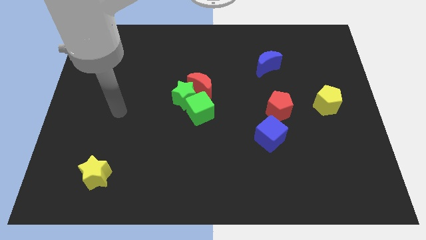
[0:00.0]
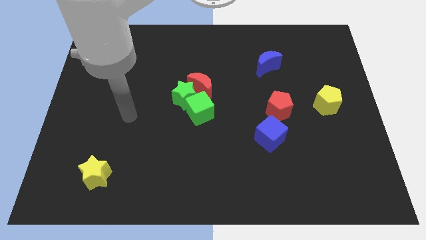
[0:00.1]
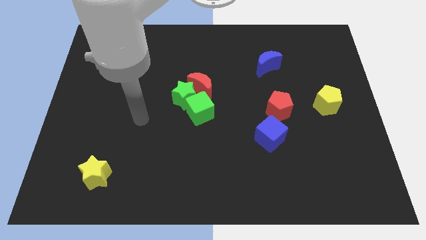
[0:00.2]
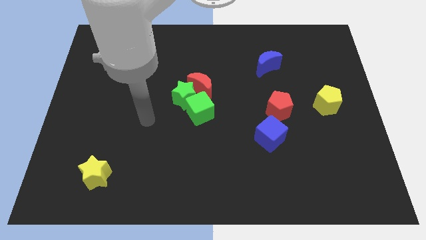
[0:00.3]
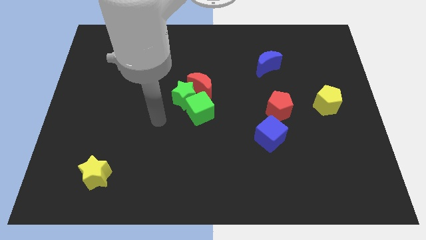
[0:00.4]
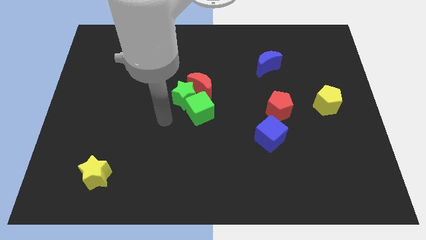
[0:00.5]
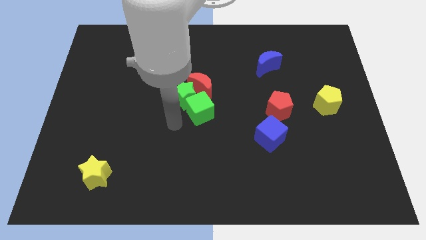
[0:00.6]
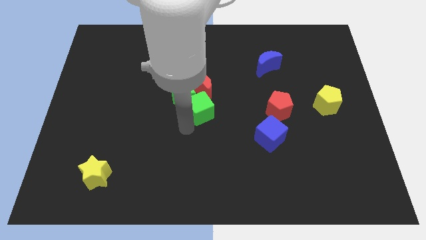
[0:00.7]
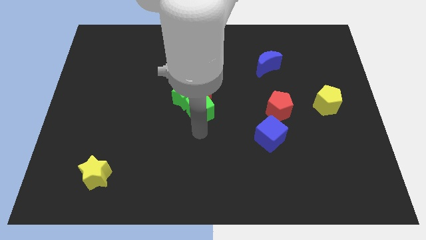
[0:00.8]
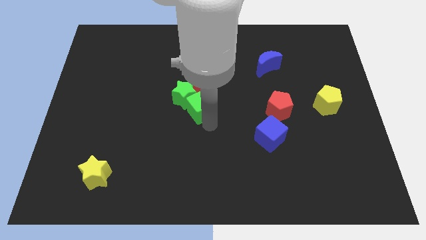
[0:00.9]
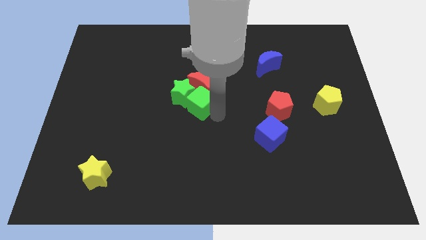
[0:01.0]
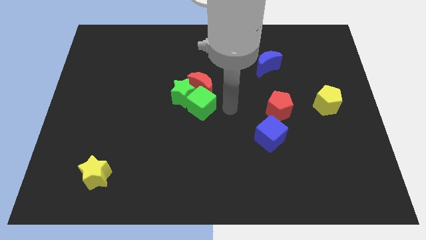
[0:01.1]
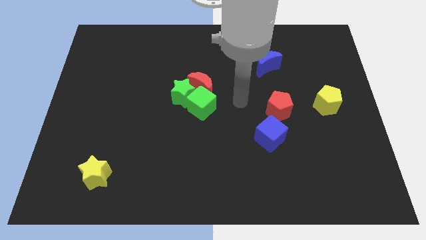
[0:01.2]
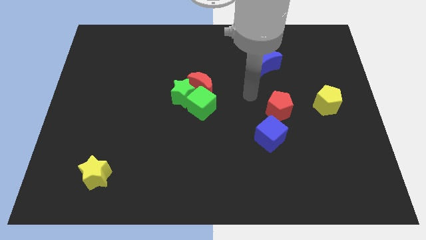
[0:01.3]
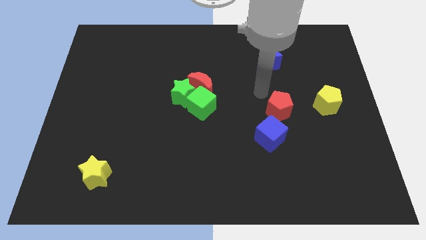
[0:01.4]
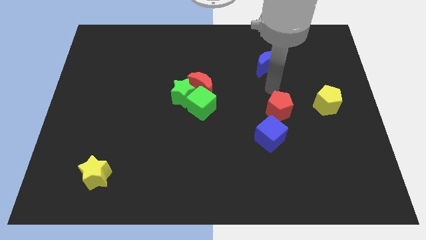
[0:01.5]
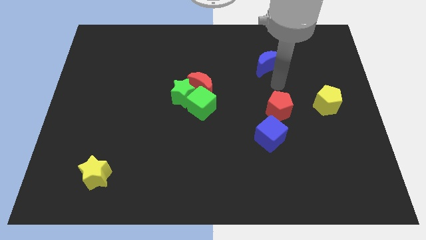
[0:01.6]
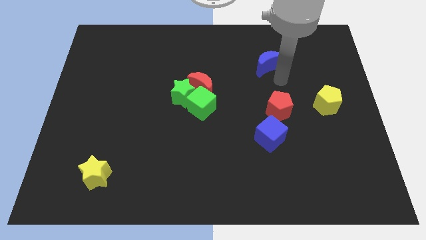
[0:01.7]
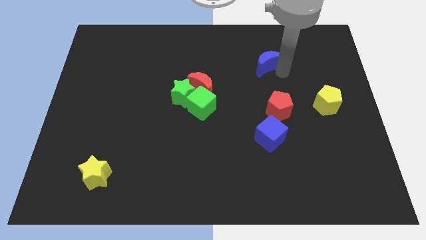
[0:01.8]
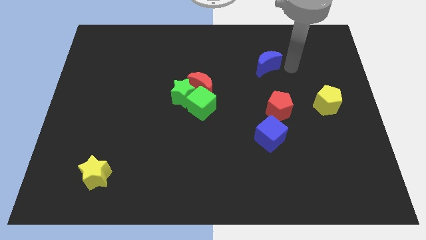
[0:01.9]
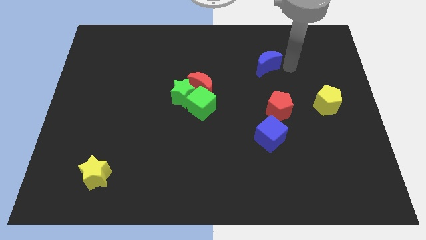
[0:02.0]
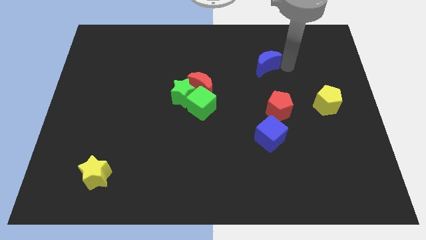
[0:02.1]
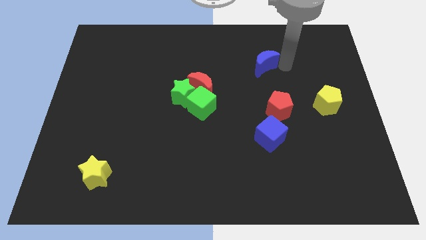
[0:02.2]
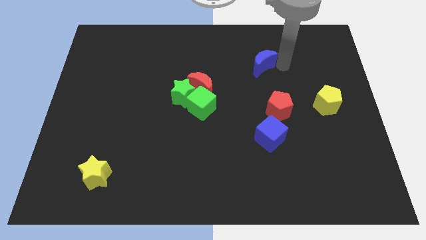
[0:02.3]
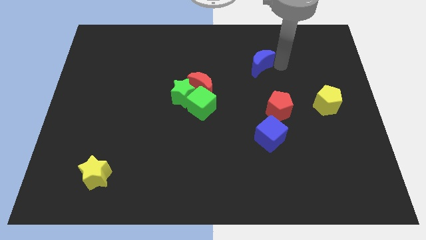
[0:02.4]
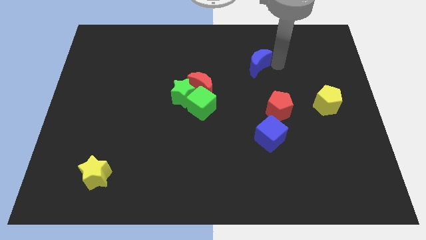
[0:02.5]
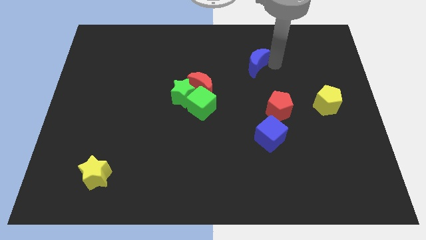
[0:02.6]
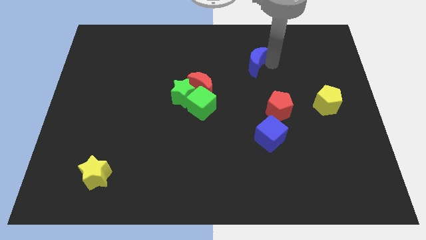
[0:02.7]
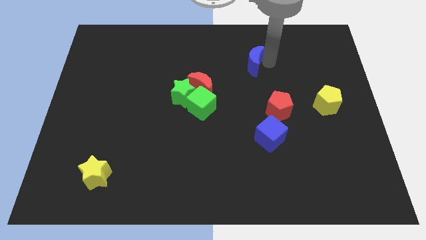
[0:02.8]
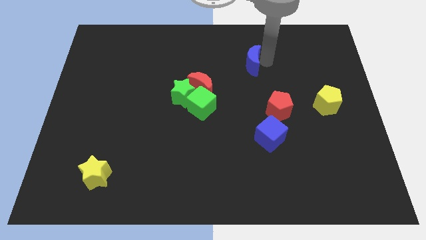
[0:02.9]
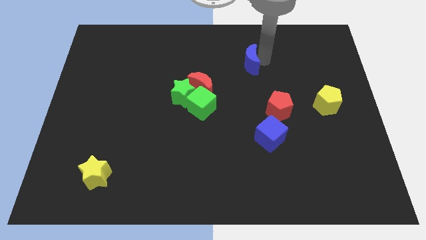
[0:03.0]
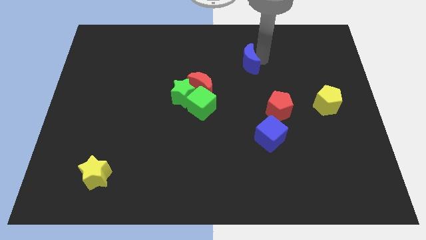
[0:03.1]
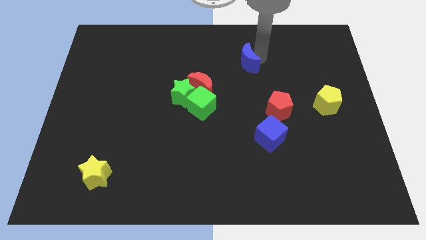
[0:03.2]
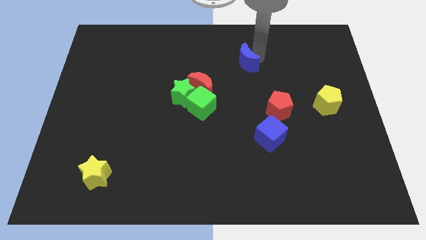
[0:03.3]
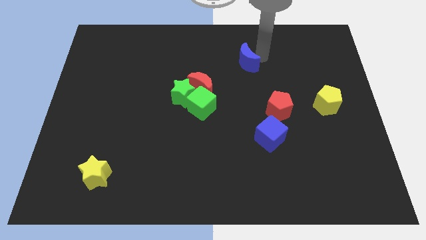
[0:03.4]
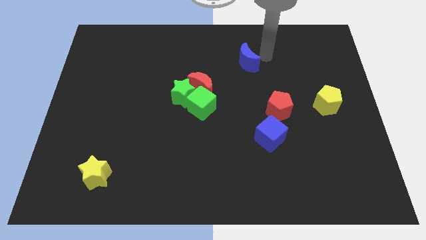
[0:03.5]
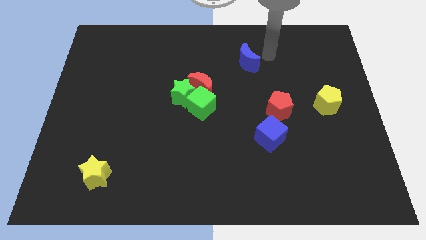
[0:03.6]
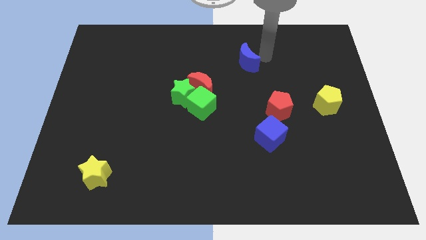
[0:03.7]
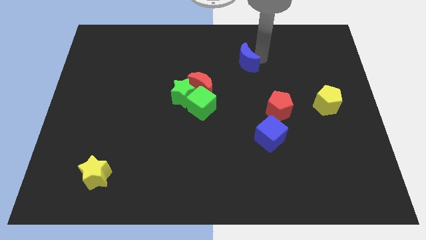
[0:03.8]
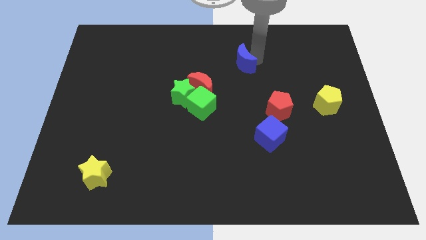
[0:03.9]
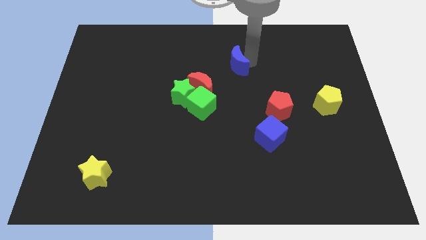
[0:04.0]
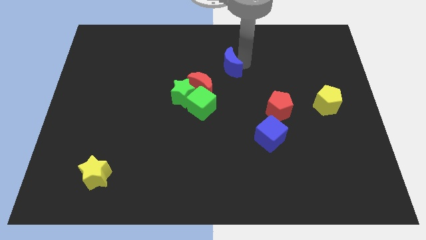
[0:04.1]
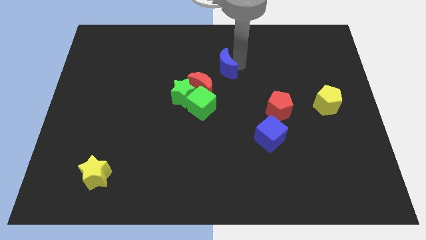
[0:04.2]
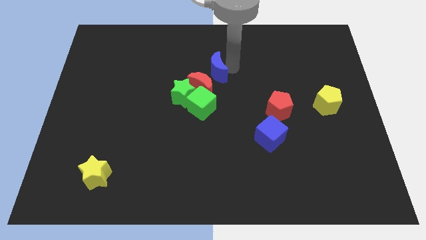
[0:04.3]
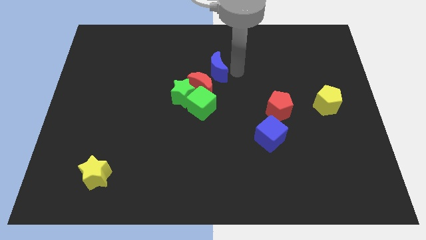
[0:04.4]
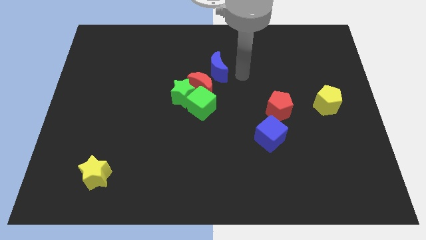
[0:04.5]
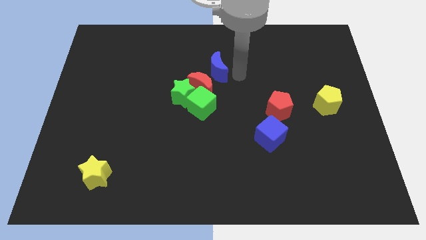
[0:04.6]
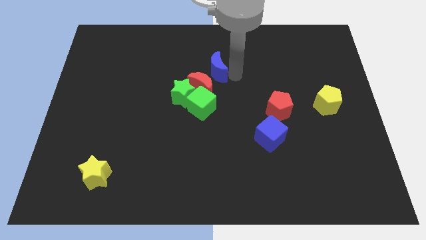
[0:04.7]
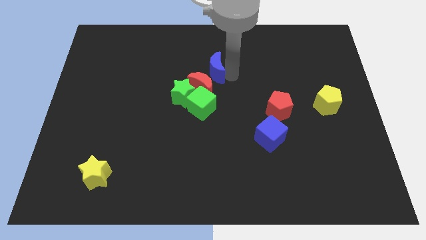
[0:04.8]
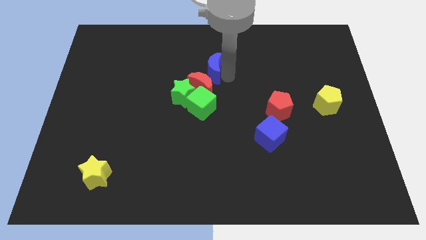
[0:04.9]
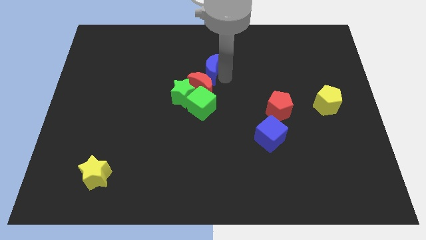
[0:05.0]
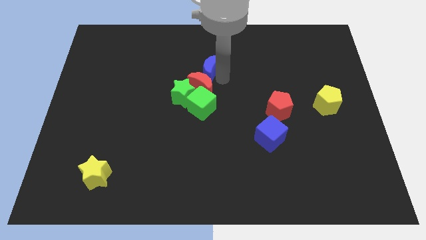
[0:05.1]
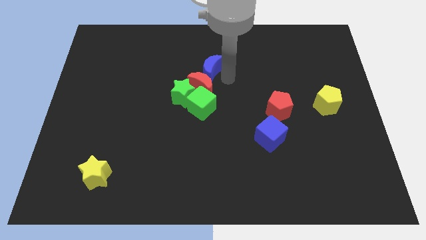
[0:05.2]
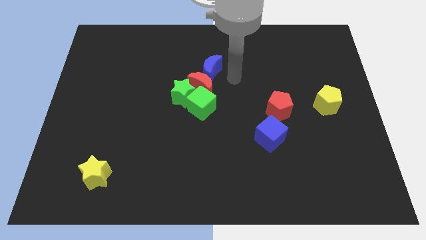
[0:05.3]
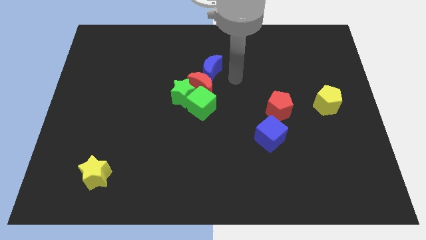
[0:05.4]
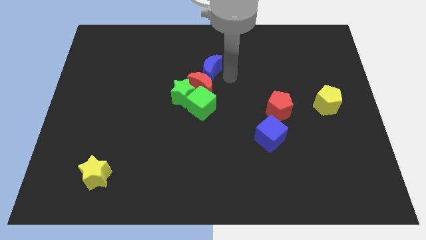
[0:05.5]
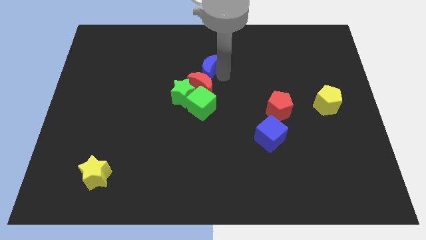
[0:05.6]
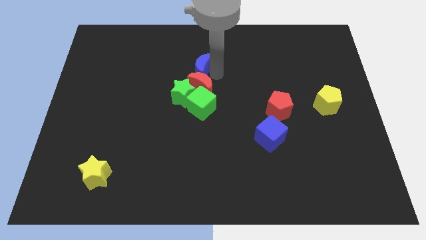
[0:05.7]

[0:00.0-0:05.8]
push the blue moon to the top side of the green star

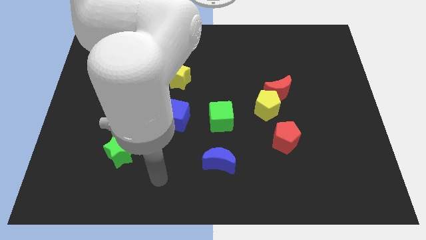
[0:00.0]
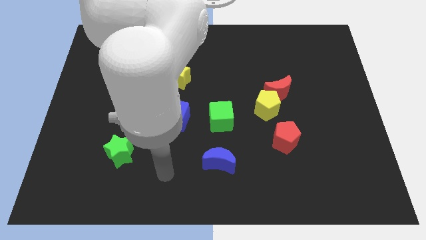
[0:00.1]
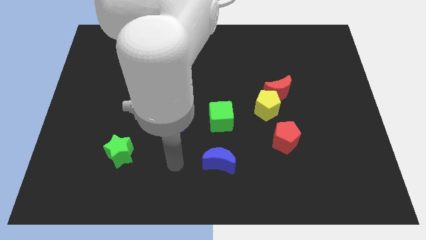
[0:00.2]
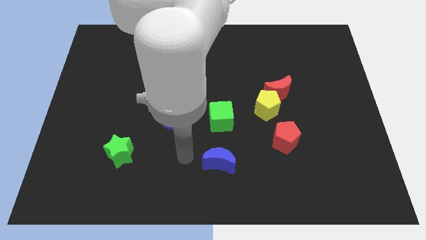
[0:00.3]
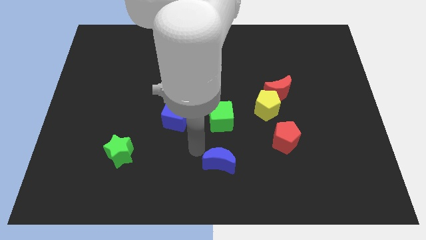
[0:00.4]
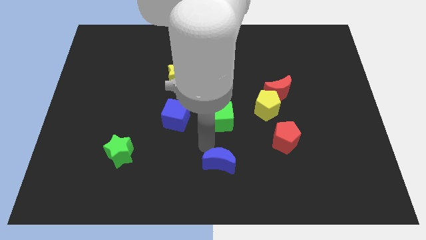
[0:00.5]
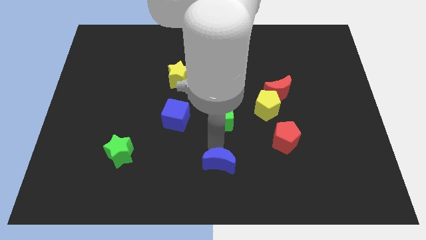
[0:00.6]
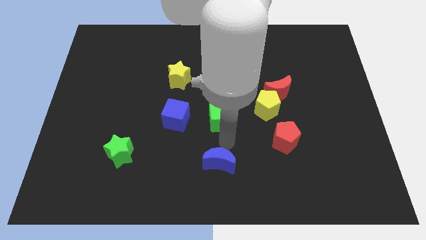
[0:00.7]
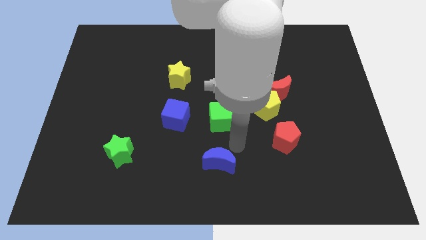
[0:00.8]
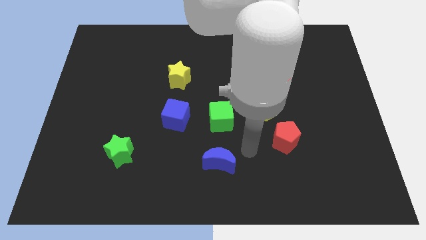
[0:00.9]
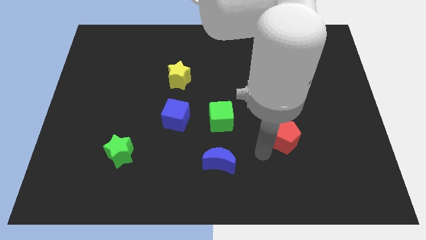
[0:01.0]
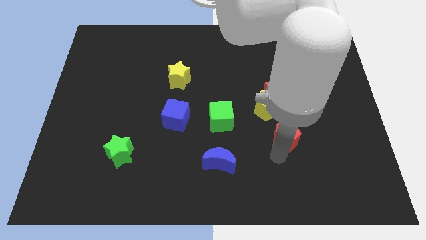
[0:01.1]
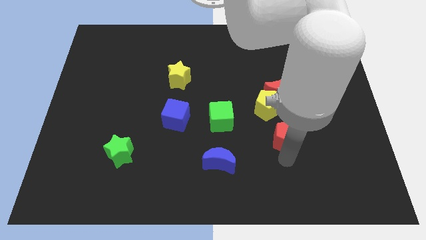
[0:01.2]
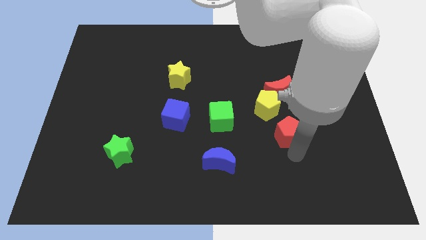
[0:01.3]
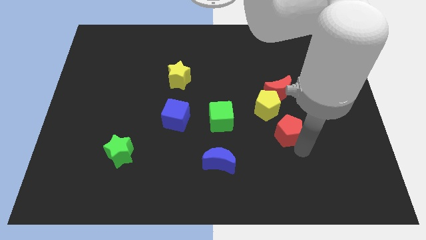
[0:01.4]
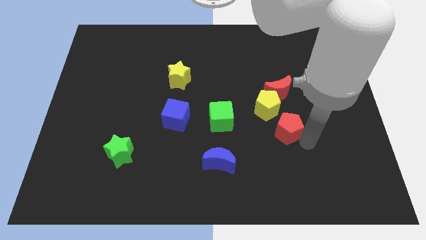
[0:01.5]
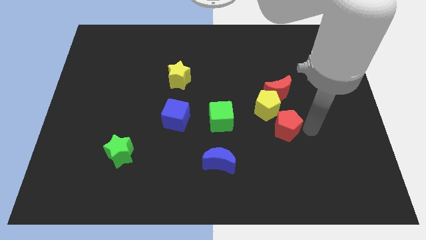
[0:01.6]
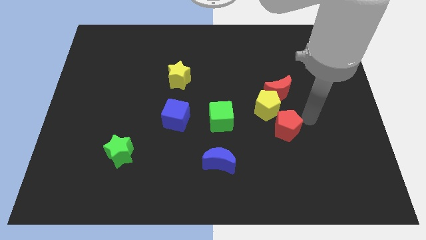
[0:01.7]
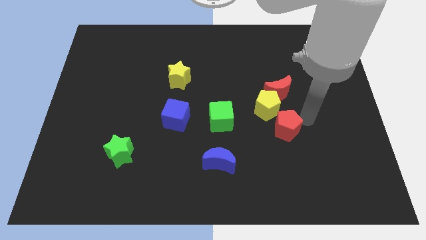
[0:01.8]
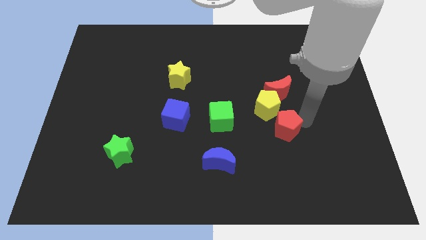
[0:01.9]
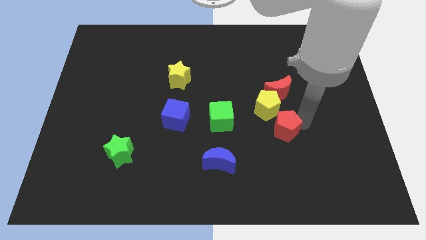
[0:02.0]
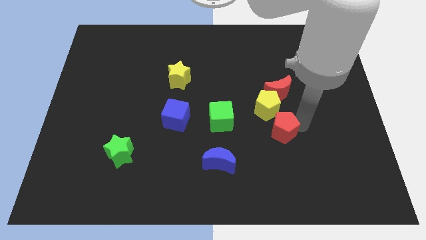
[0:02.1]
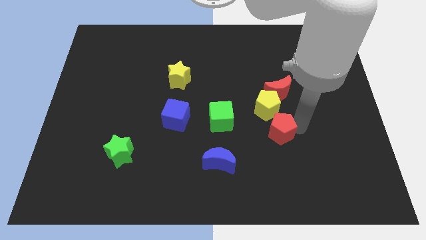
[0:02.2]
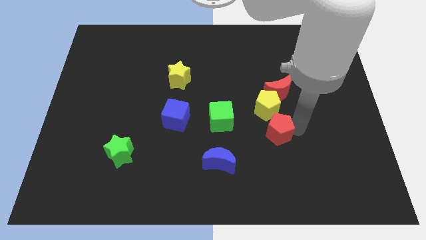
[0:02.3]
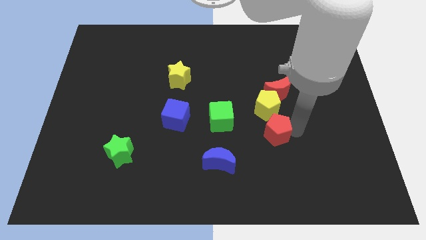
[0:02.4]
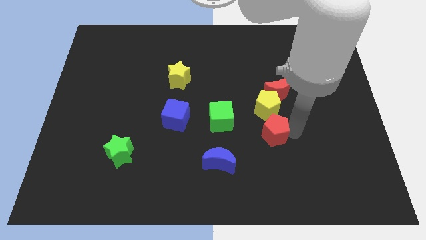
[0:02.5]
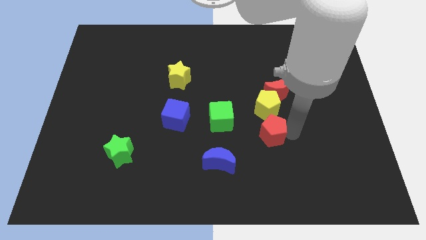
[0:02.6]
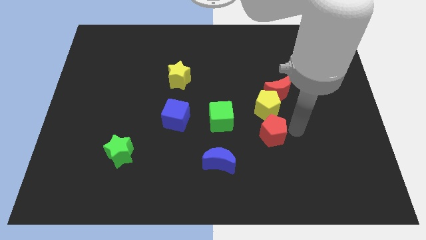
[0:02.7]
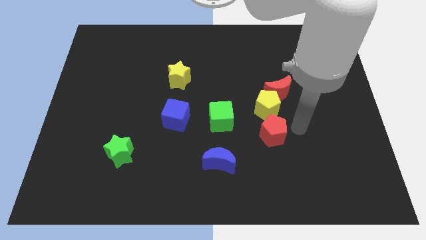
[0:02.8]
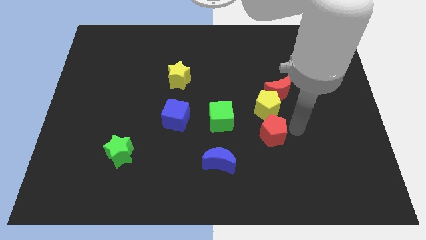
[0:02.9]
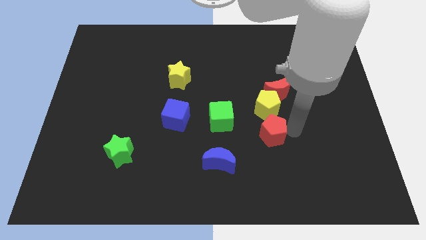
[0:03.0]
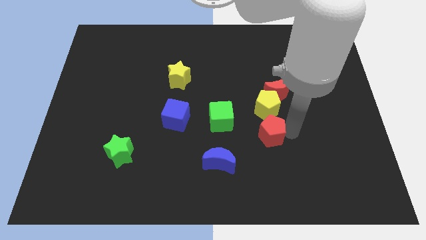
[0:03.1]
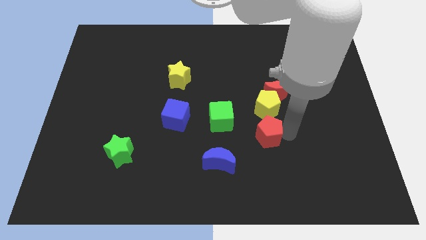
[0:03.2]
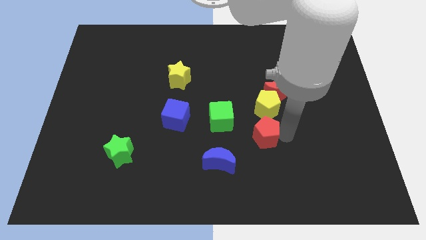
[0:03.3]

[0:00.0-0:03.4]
slide the red pentagon to the top right of the blue moon
